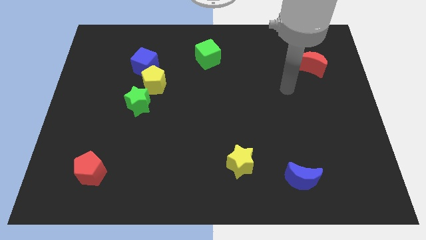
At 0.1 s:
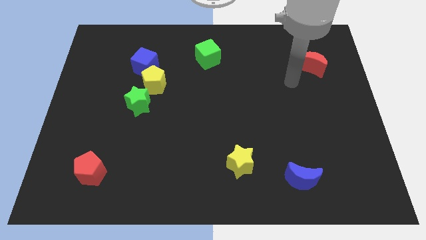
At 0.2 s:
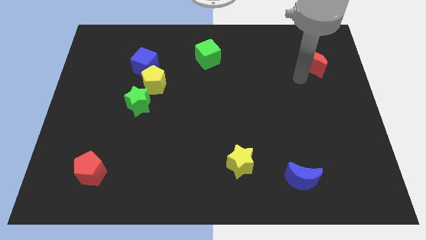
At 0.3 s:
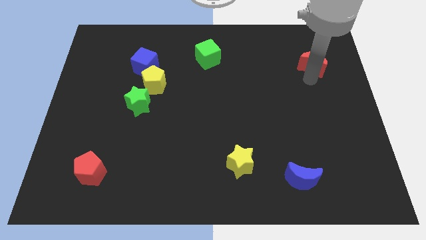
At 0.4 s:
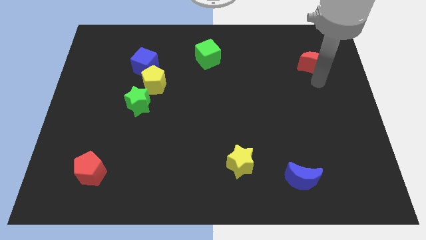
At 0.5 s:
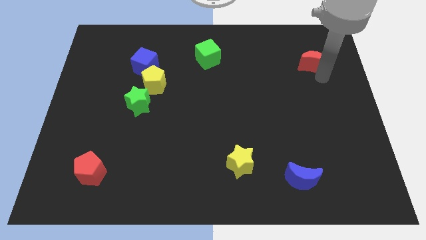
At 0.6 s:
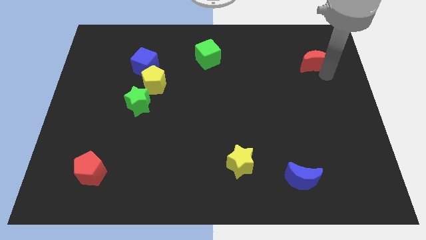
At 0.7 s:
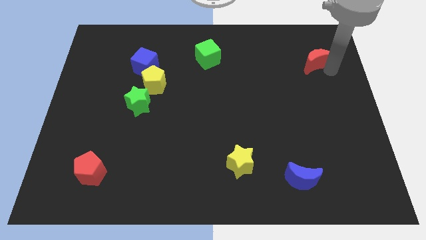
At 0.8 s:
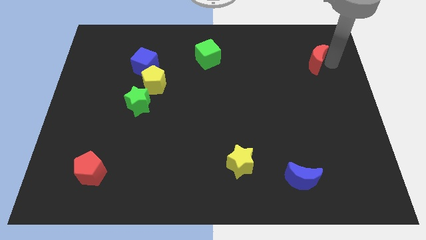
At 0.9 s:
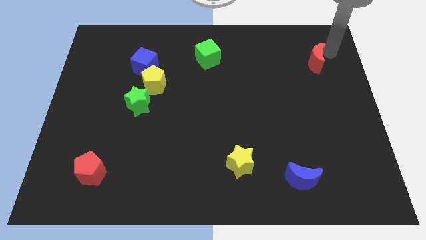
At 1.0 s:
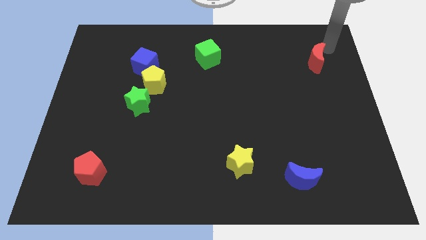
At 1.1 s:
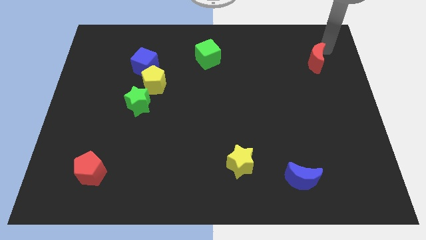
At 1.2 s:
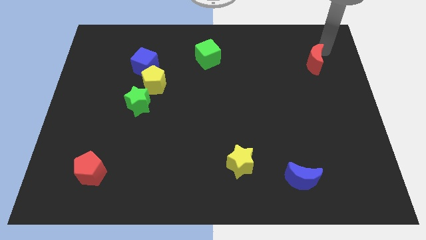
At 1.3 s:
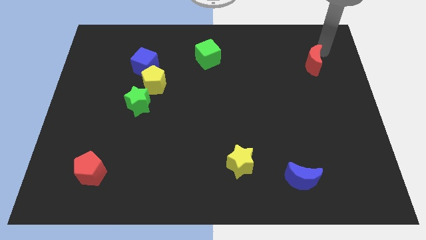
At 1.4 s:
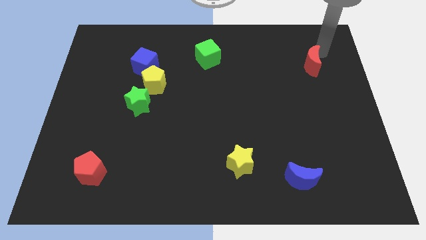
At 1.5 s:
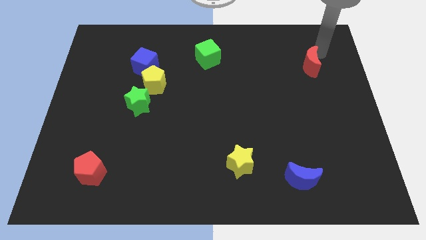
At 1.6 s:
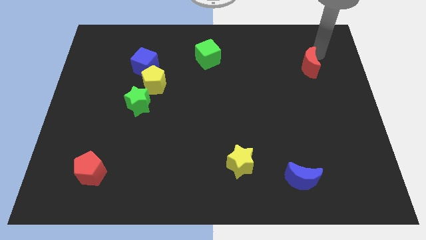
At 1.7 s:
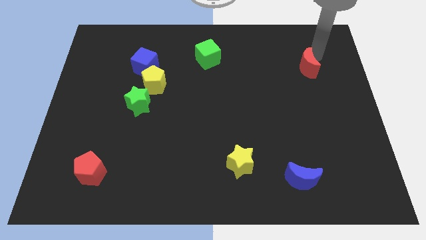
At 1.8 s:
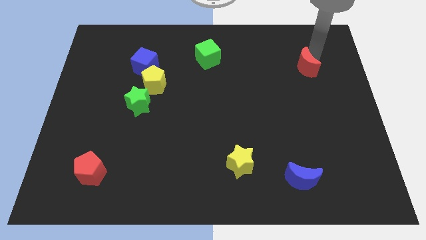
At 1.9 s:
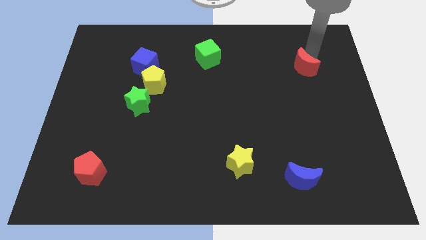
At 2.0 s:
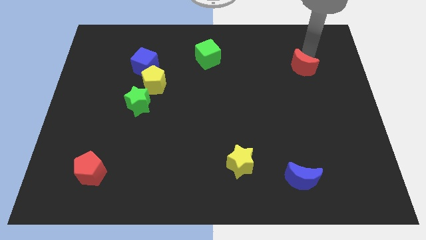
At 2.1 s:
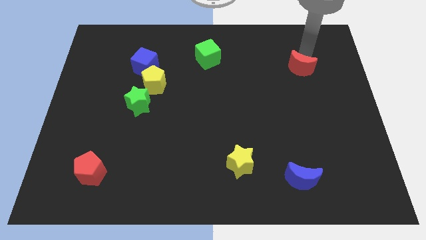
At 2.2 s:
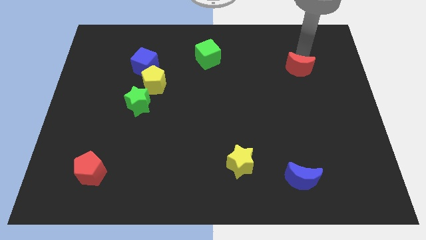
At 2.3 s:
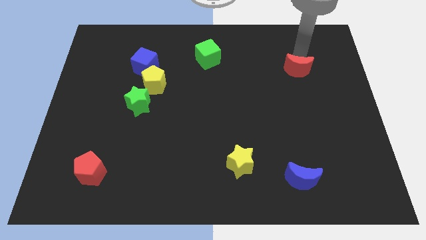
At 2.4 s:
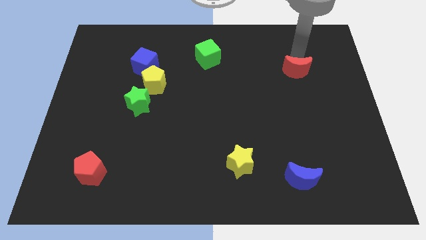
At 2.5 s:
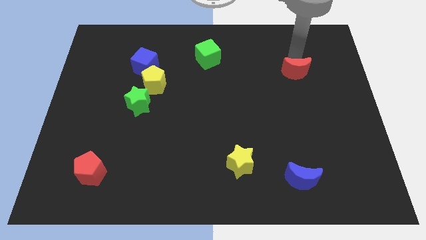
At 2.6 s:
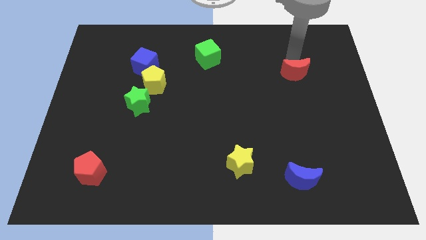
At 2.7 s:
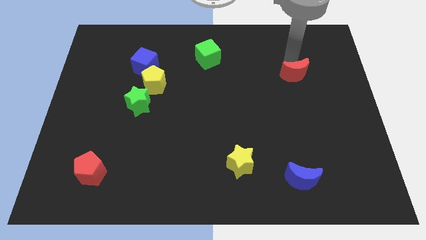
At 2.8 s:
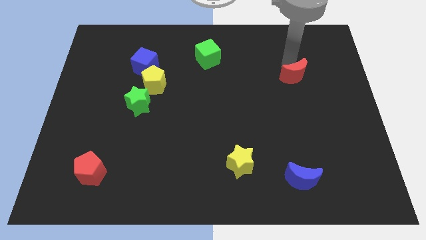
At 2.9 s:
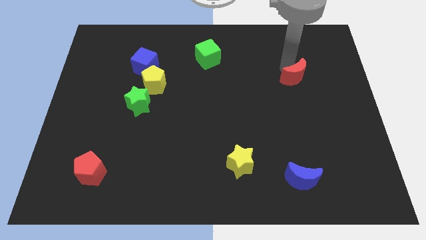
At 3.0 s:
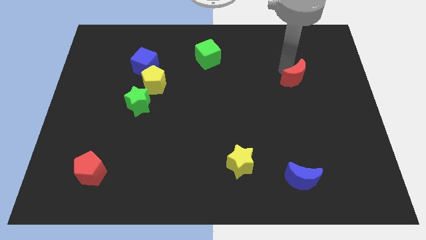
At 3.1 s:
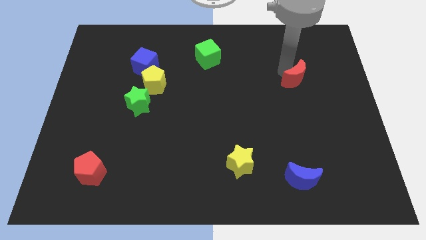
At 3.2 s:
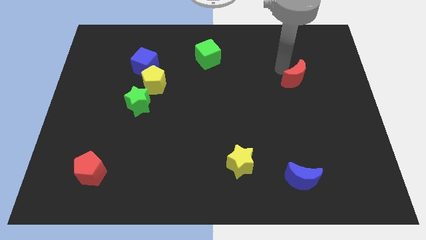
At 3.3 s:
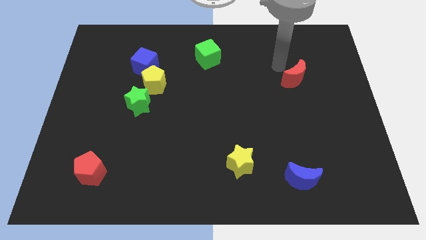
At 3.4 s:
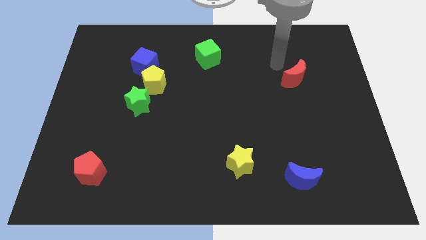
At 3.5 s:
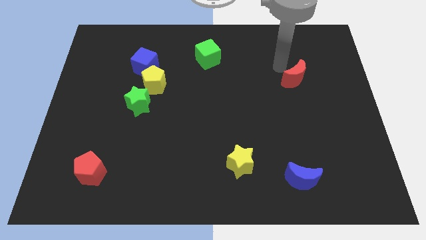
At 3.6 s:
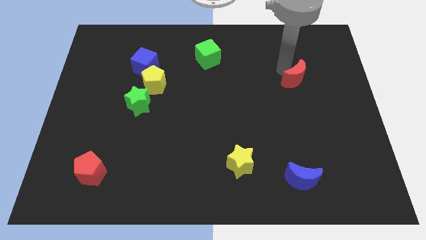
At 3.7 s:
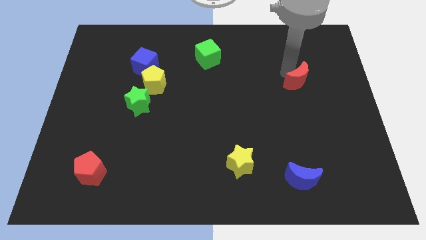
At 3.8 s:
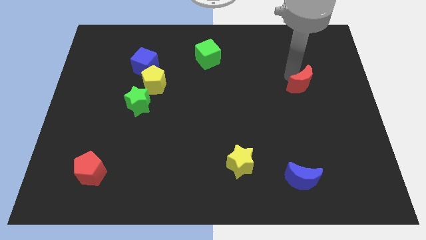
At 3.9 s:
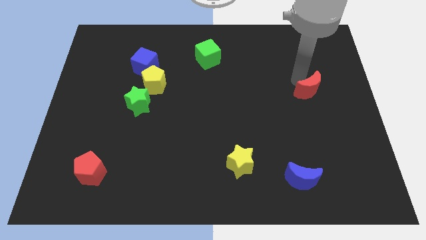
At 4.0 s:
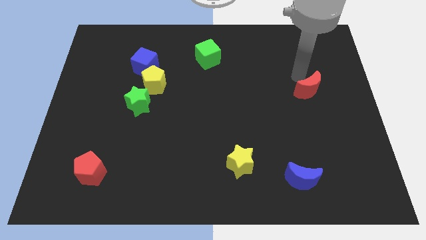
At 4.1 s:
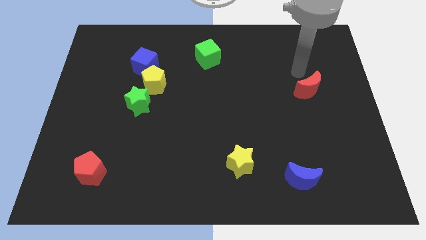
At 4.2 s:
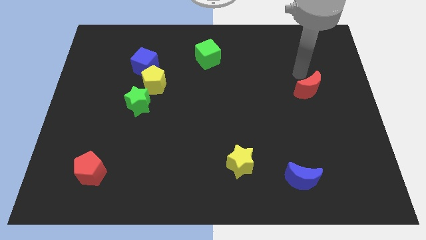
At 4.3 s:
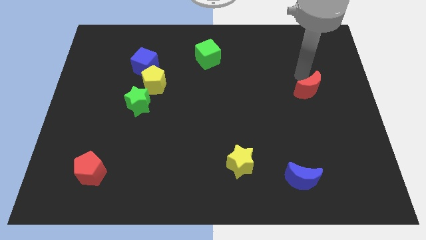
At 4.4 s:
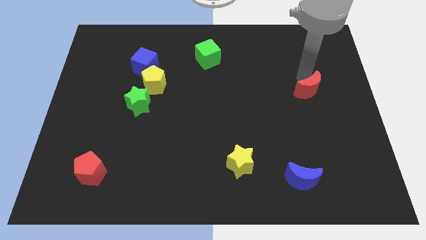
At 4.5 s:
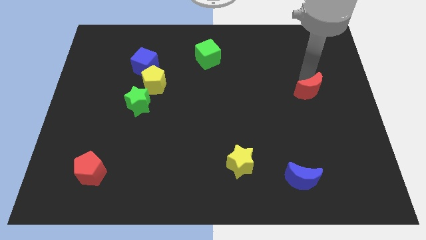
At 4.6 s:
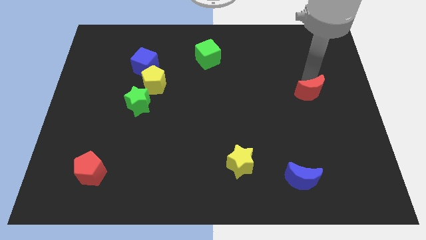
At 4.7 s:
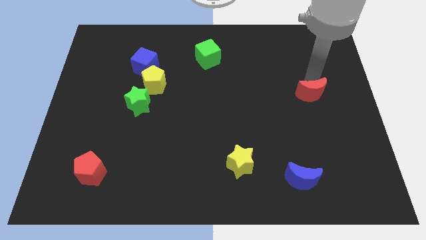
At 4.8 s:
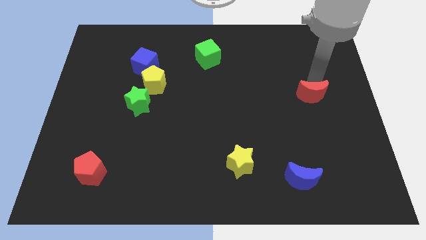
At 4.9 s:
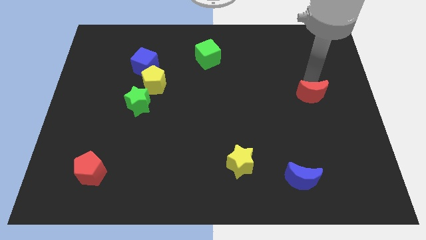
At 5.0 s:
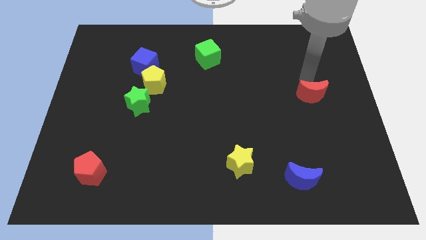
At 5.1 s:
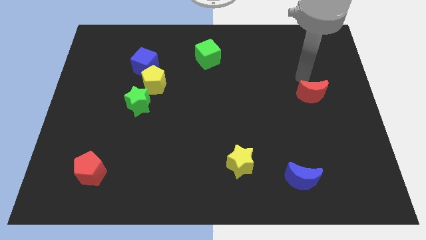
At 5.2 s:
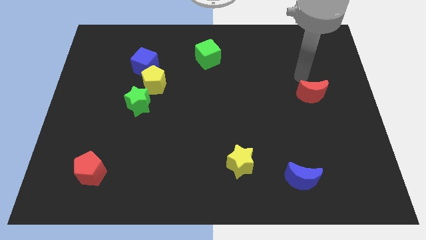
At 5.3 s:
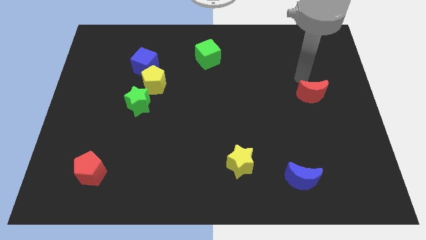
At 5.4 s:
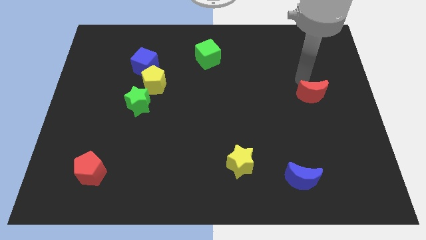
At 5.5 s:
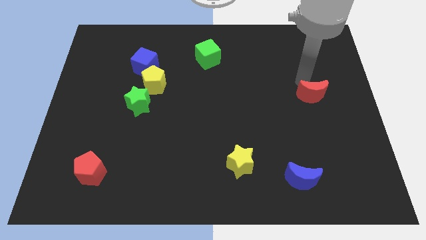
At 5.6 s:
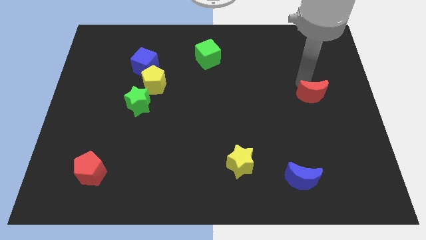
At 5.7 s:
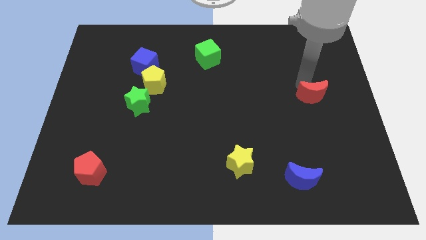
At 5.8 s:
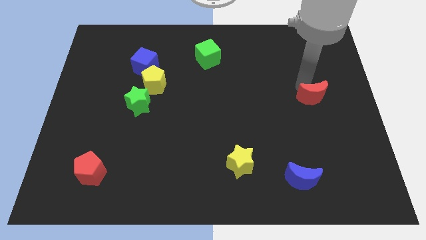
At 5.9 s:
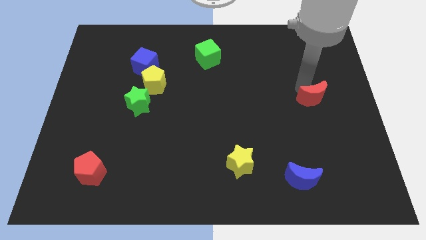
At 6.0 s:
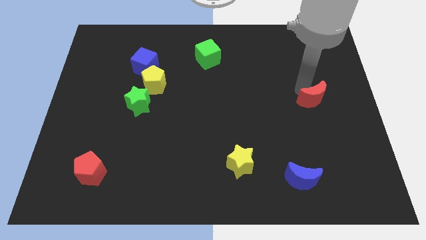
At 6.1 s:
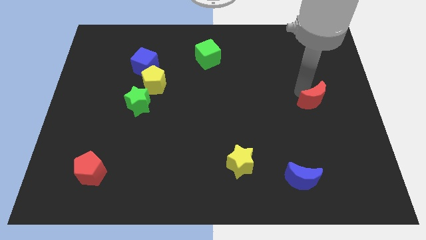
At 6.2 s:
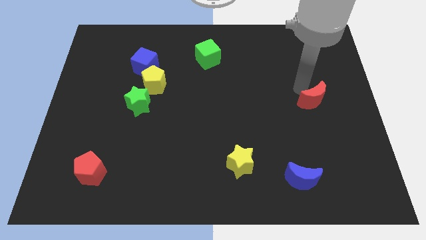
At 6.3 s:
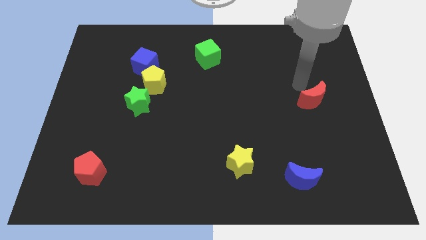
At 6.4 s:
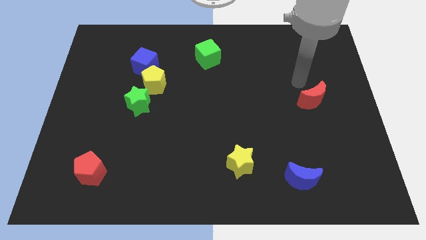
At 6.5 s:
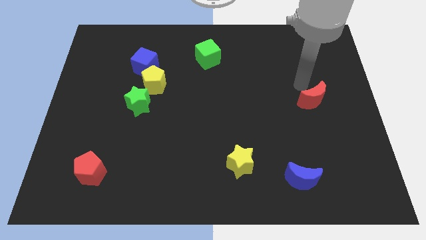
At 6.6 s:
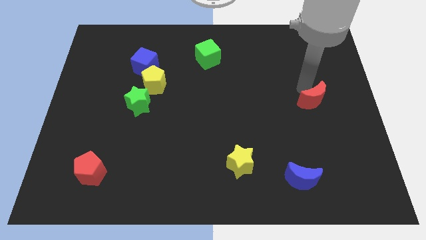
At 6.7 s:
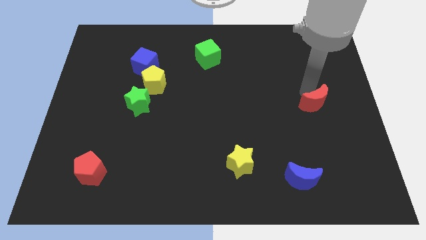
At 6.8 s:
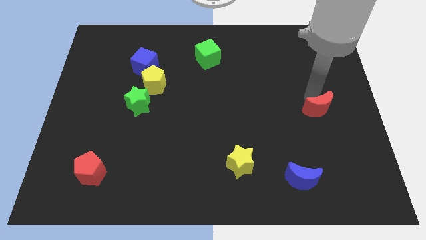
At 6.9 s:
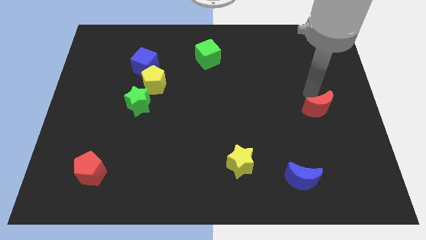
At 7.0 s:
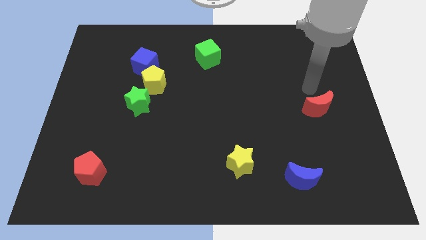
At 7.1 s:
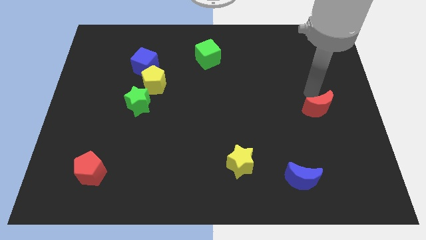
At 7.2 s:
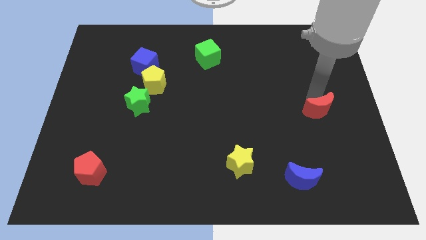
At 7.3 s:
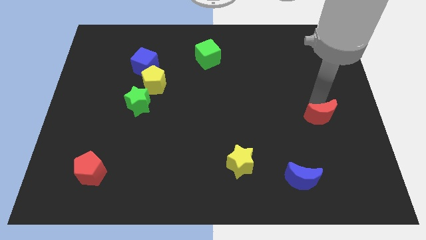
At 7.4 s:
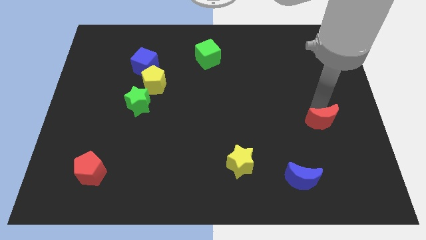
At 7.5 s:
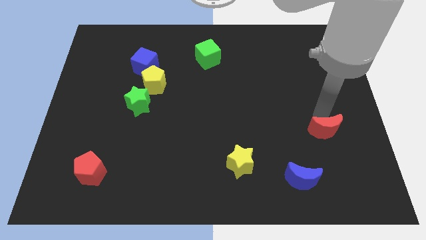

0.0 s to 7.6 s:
push the red moon downwards

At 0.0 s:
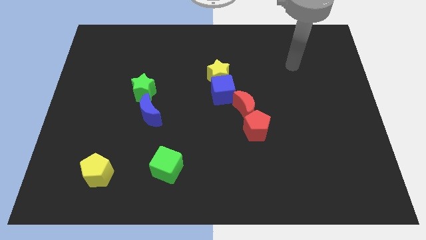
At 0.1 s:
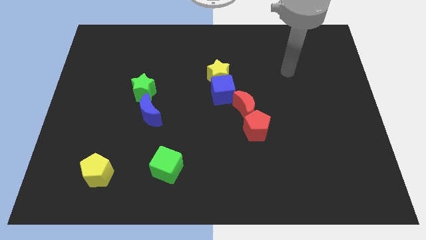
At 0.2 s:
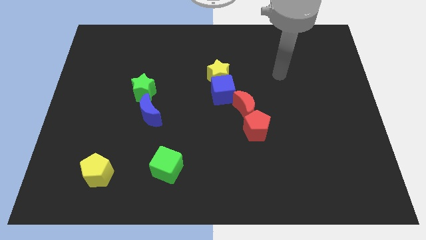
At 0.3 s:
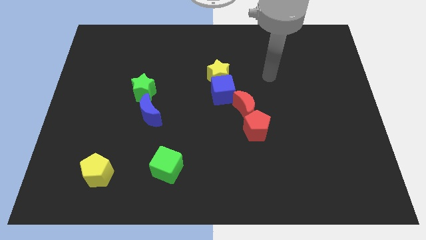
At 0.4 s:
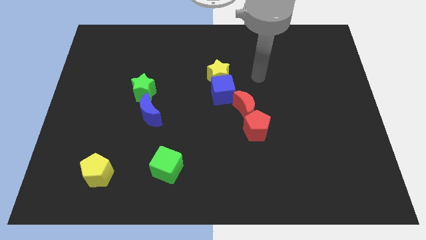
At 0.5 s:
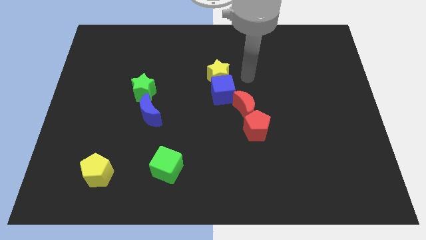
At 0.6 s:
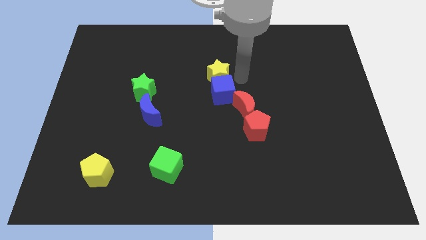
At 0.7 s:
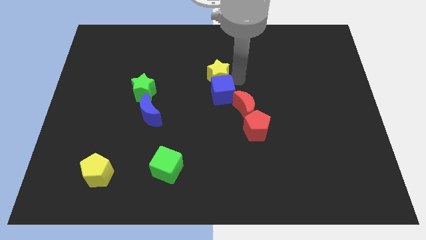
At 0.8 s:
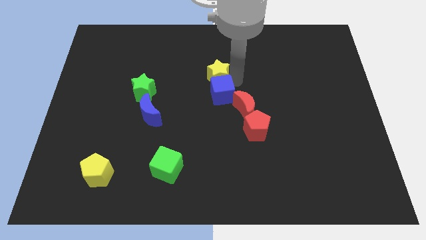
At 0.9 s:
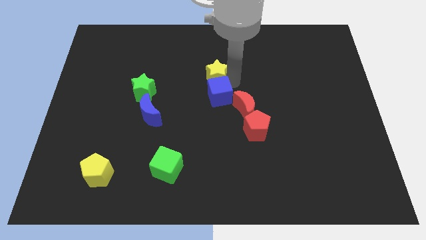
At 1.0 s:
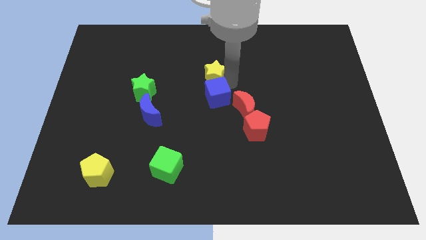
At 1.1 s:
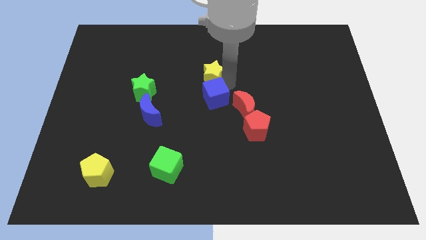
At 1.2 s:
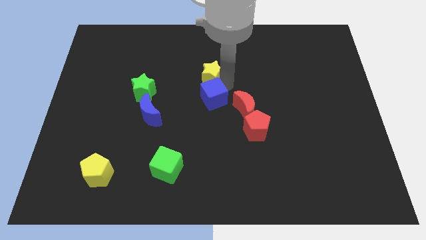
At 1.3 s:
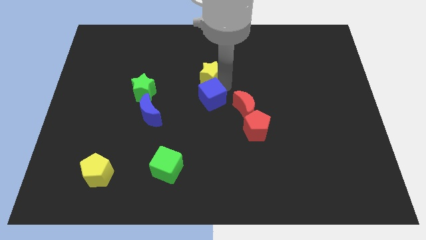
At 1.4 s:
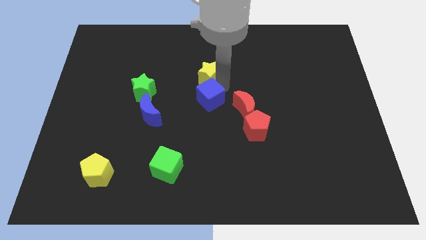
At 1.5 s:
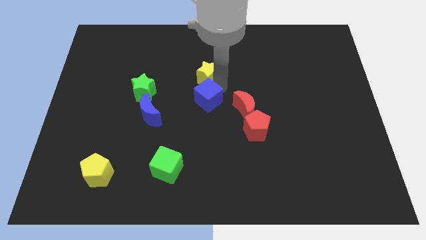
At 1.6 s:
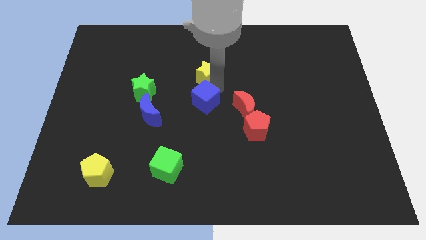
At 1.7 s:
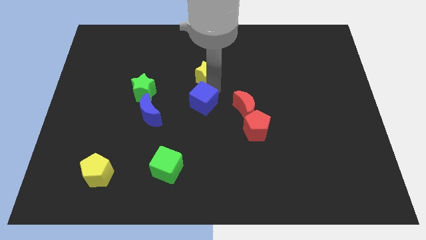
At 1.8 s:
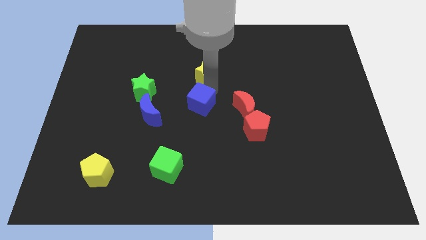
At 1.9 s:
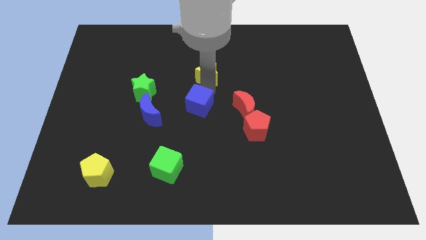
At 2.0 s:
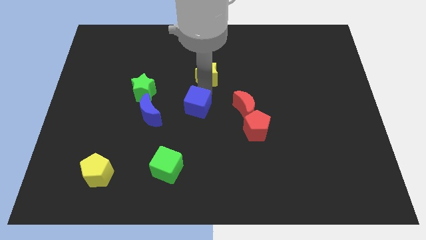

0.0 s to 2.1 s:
push the blue cube down and left diagonally slightly
